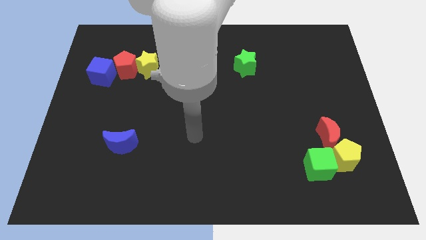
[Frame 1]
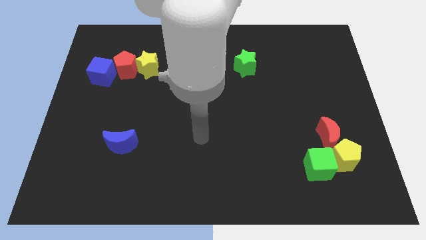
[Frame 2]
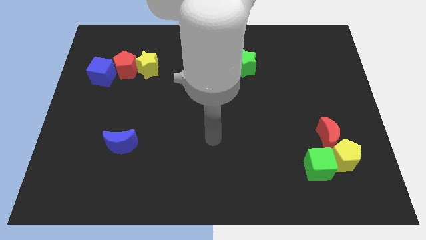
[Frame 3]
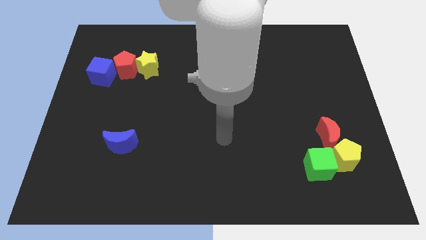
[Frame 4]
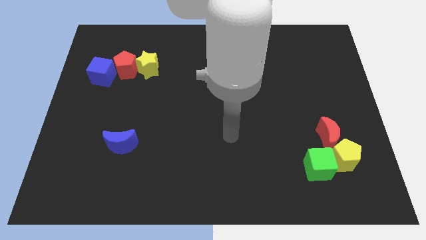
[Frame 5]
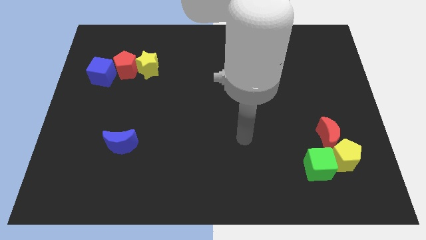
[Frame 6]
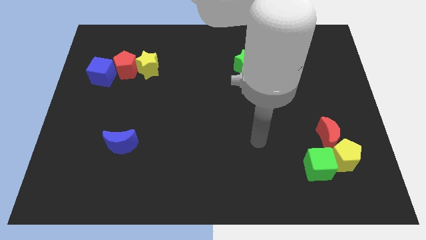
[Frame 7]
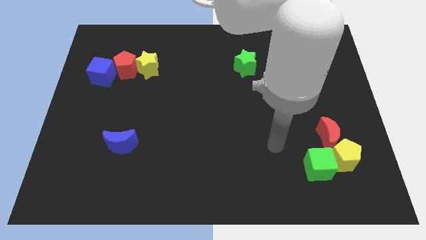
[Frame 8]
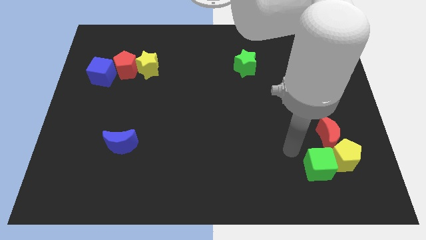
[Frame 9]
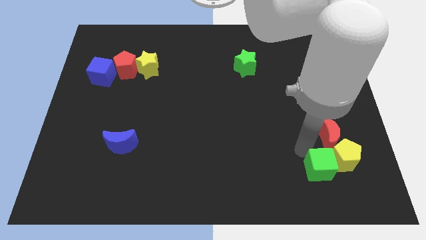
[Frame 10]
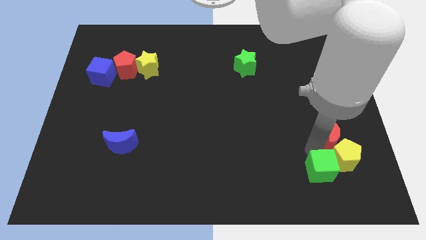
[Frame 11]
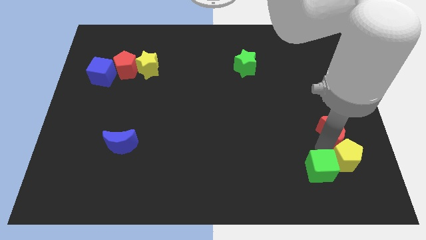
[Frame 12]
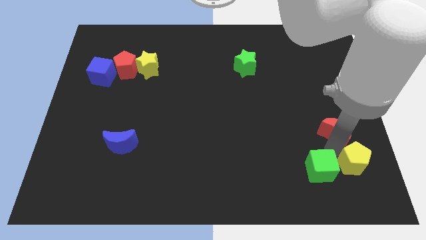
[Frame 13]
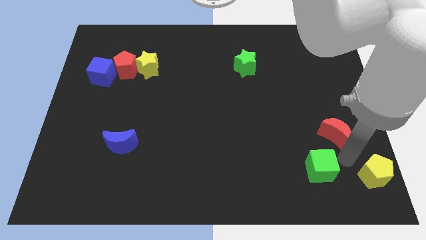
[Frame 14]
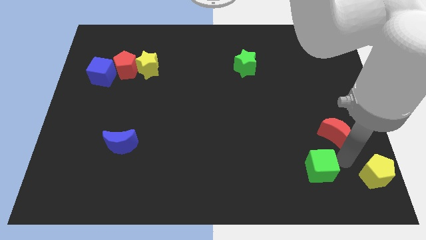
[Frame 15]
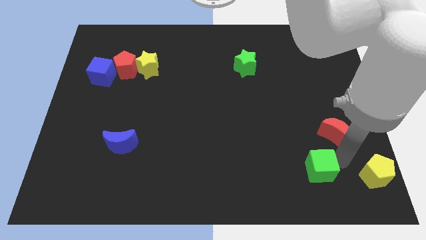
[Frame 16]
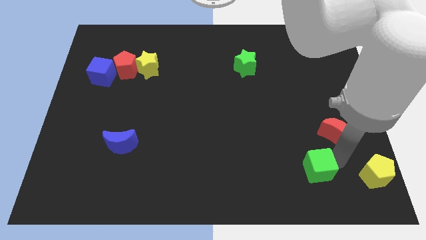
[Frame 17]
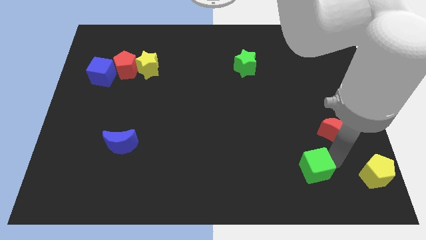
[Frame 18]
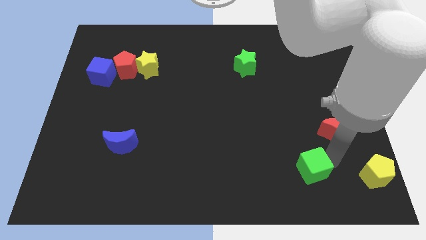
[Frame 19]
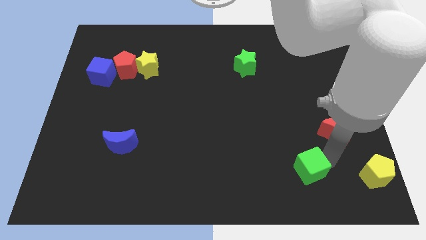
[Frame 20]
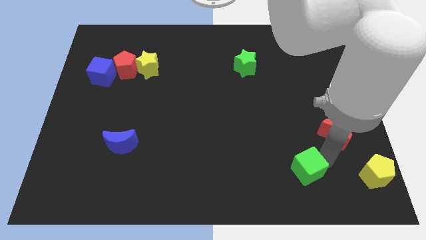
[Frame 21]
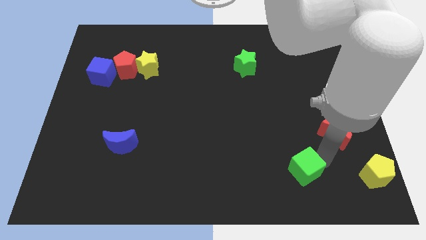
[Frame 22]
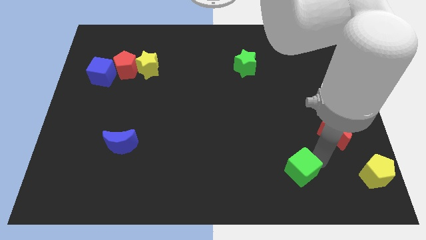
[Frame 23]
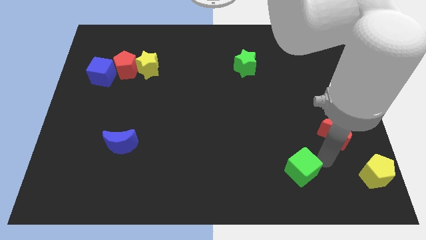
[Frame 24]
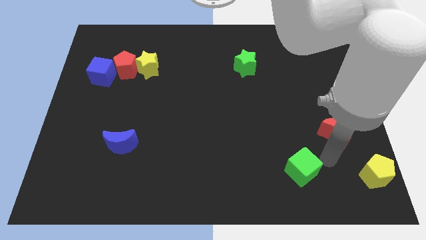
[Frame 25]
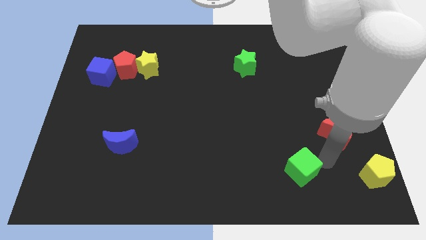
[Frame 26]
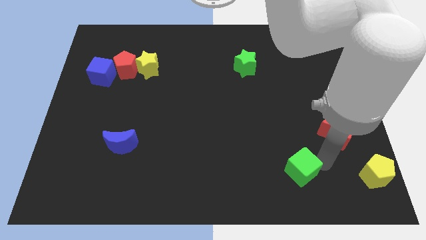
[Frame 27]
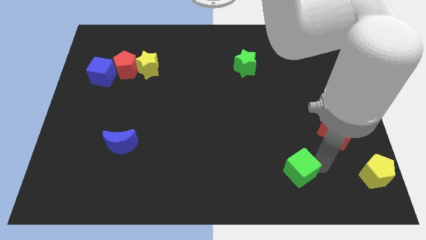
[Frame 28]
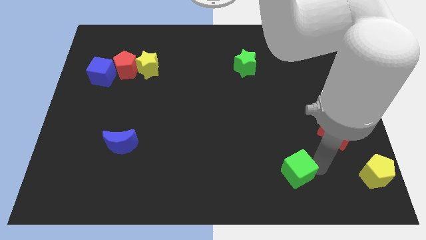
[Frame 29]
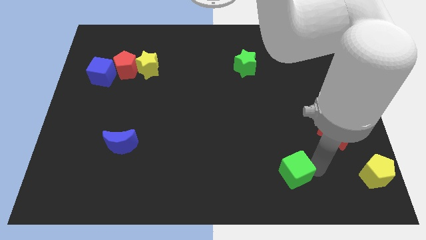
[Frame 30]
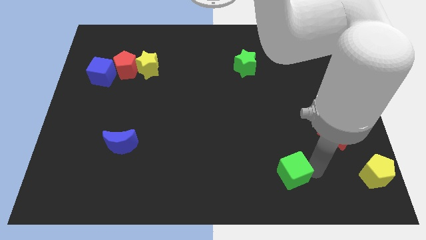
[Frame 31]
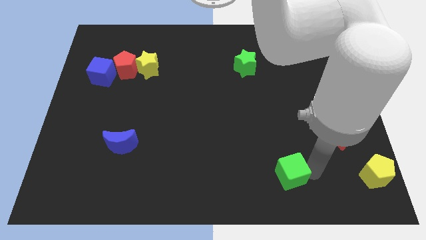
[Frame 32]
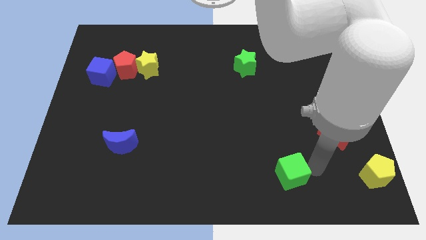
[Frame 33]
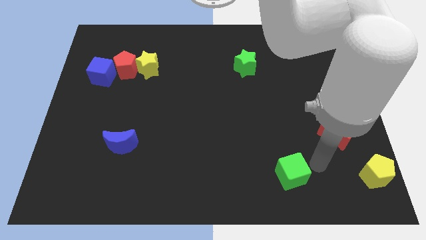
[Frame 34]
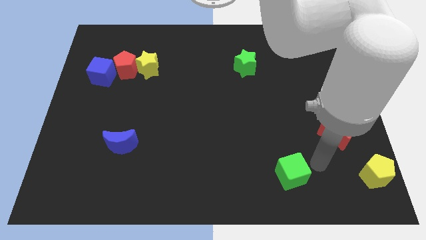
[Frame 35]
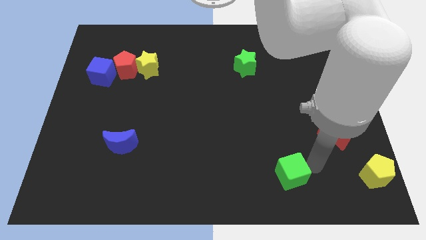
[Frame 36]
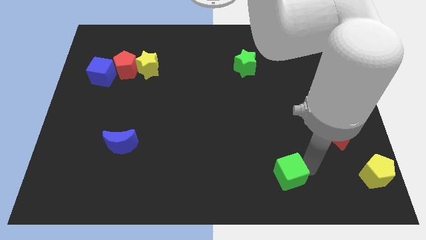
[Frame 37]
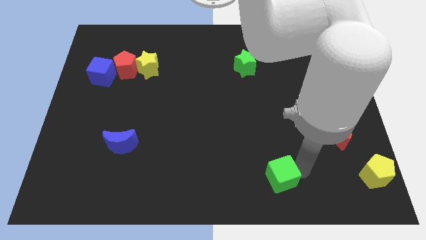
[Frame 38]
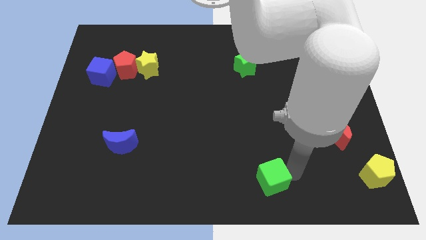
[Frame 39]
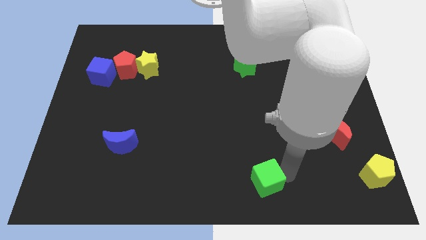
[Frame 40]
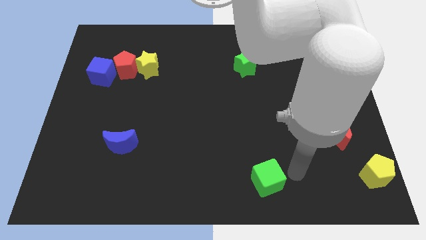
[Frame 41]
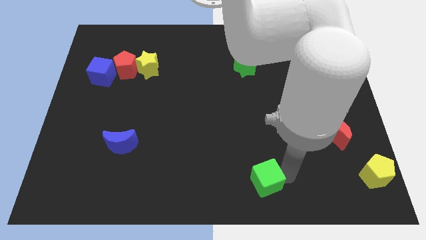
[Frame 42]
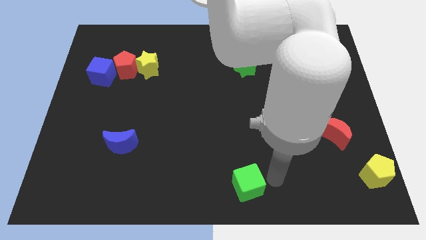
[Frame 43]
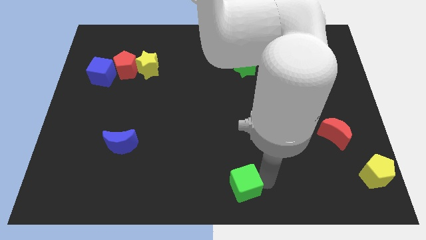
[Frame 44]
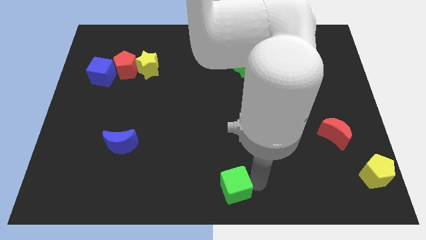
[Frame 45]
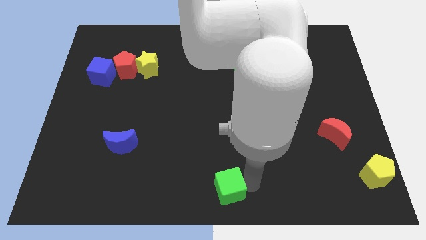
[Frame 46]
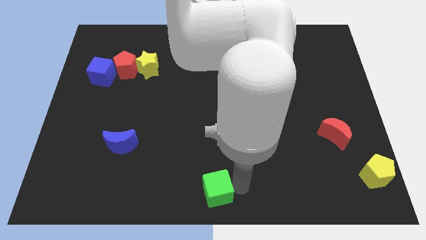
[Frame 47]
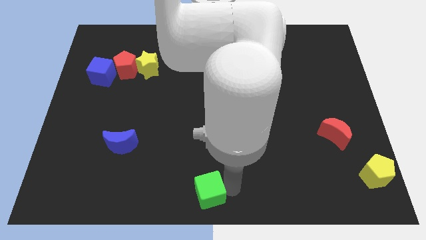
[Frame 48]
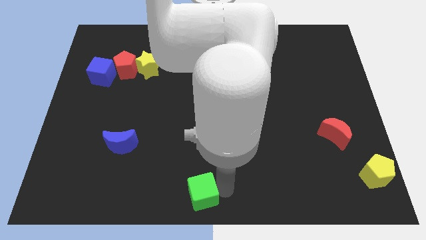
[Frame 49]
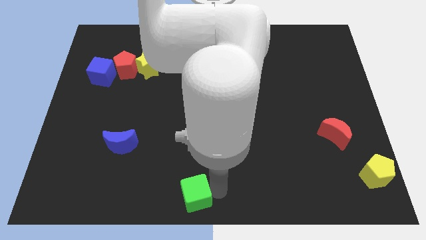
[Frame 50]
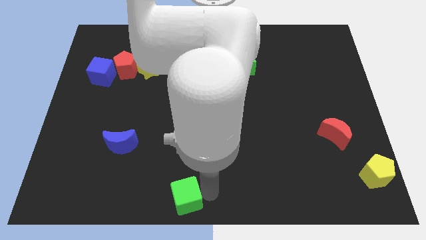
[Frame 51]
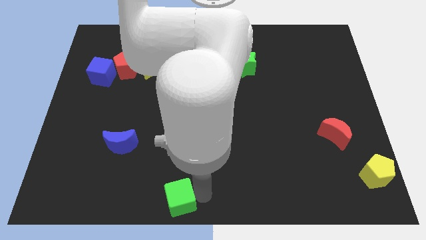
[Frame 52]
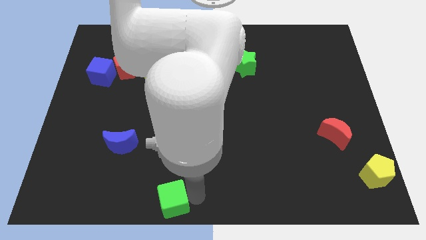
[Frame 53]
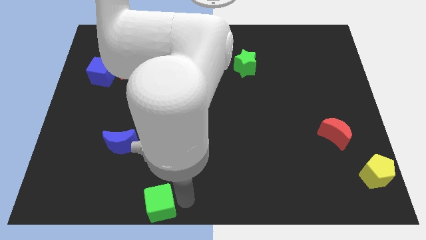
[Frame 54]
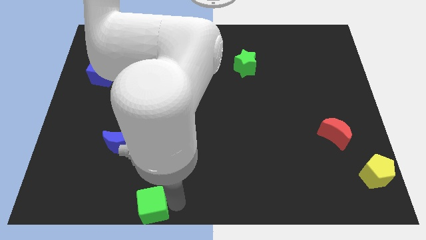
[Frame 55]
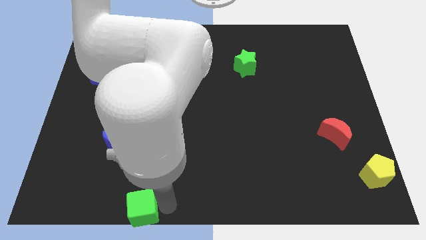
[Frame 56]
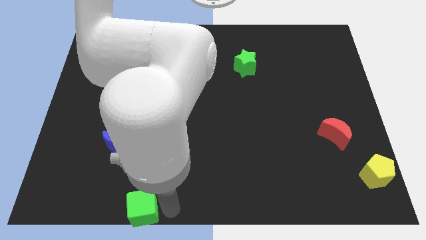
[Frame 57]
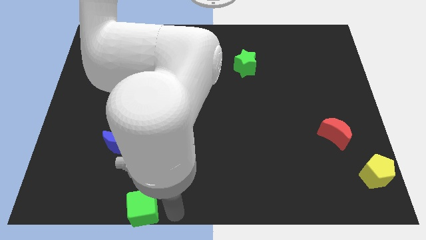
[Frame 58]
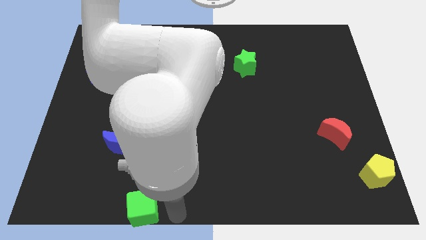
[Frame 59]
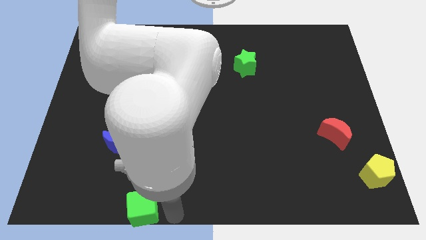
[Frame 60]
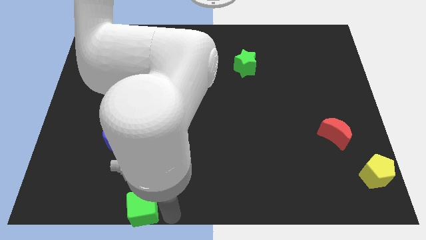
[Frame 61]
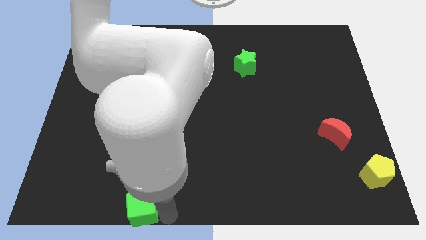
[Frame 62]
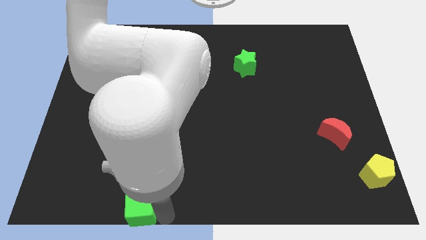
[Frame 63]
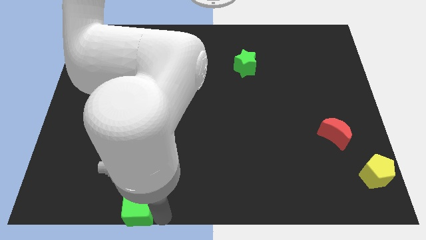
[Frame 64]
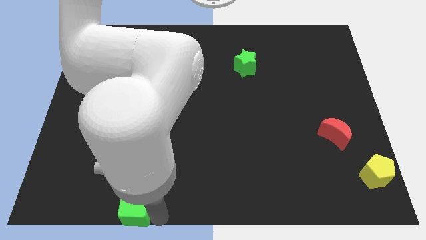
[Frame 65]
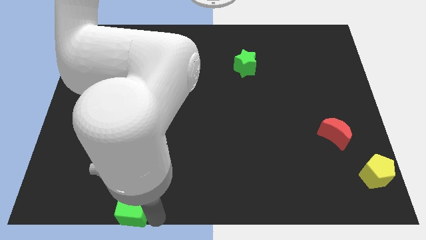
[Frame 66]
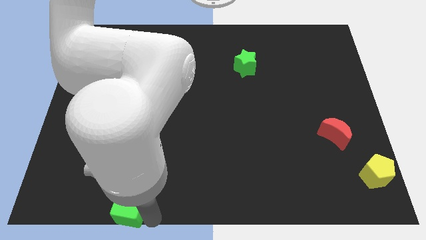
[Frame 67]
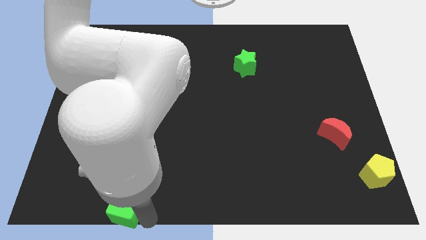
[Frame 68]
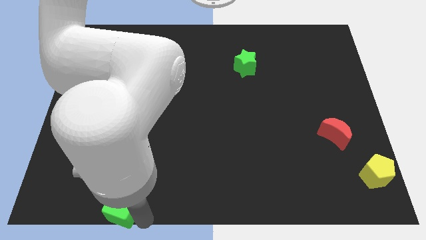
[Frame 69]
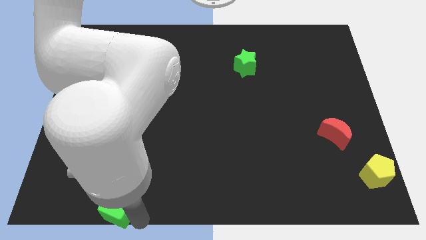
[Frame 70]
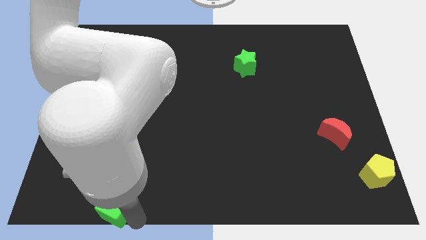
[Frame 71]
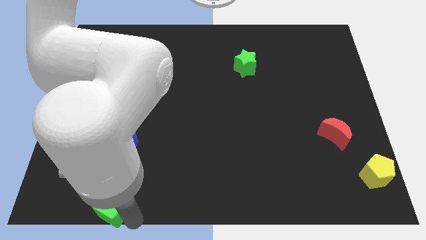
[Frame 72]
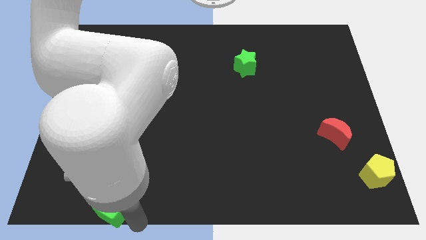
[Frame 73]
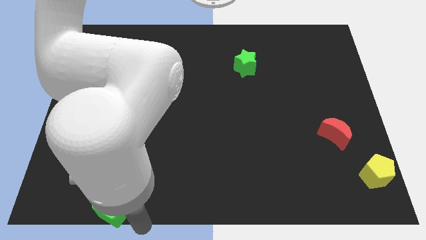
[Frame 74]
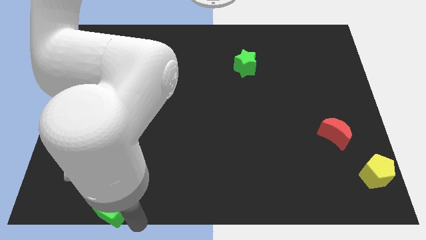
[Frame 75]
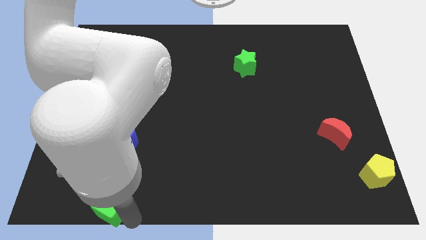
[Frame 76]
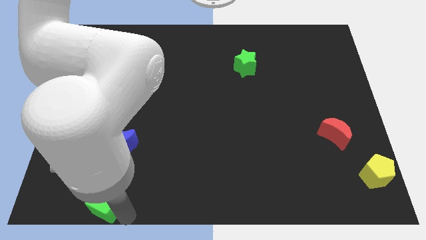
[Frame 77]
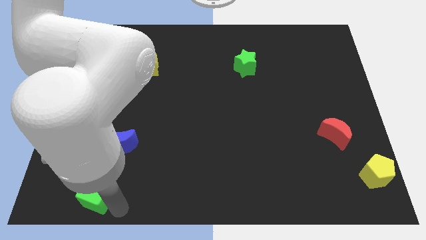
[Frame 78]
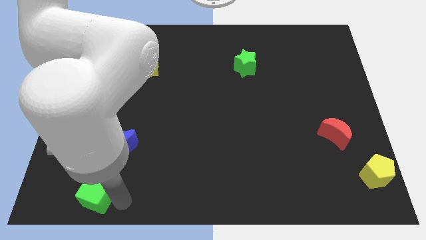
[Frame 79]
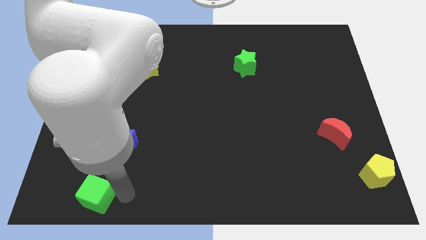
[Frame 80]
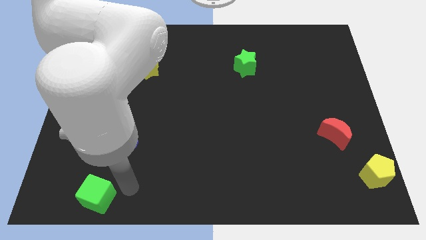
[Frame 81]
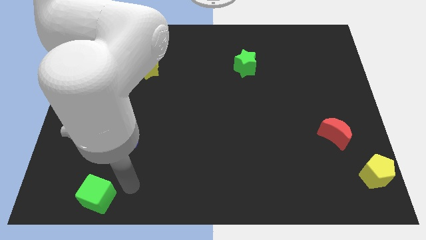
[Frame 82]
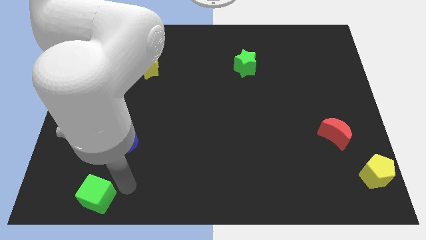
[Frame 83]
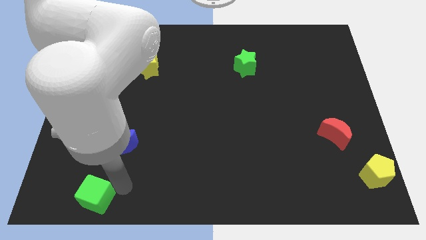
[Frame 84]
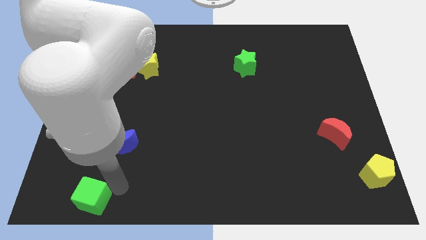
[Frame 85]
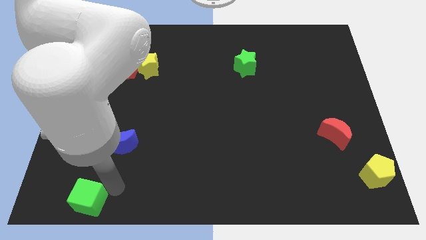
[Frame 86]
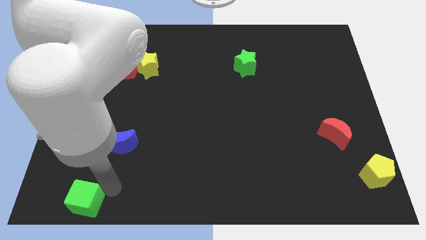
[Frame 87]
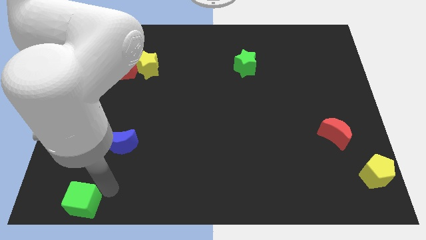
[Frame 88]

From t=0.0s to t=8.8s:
move the green cube to the bottom left
